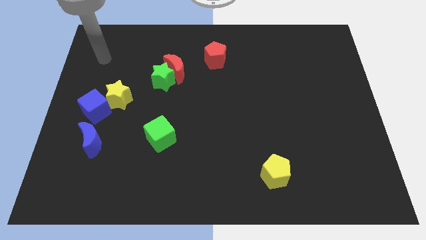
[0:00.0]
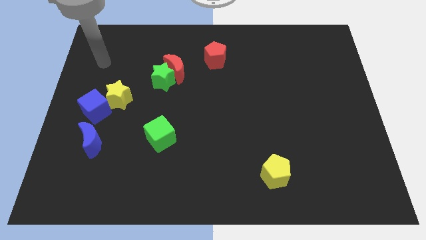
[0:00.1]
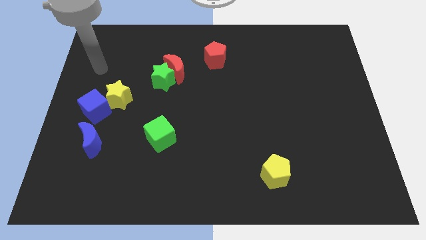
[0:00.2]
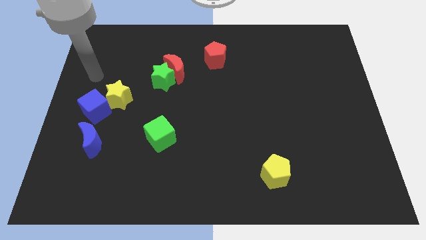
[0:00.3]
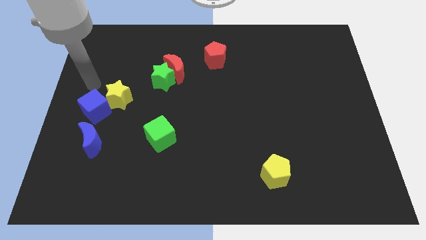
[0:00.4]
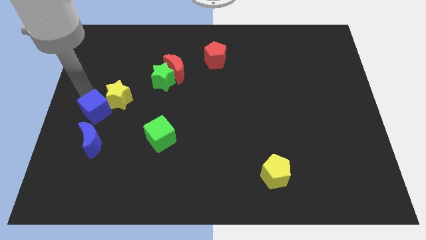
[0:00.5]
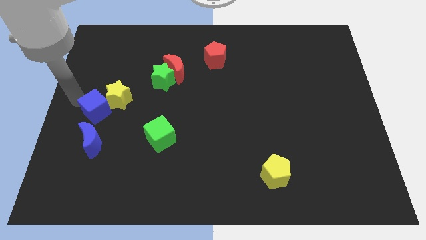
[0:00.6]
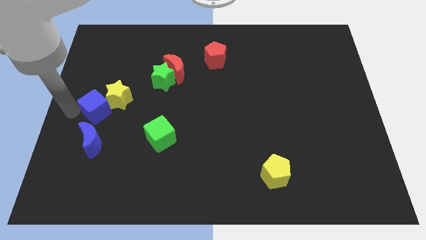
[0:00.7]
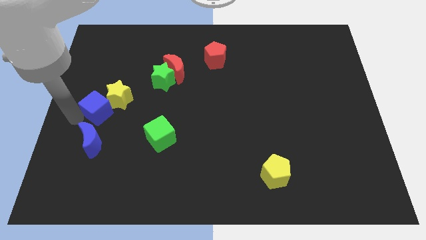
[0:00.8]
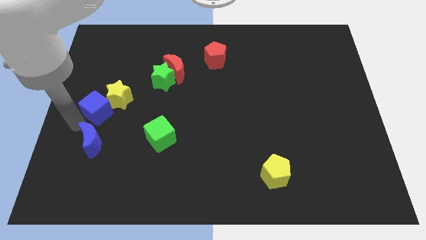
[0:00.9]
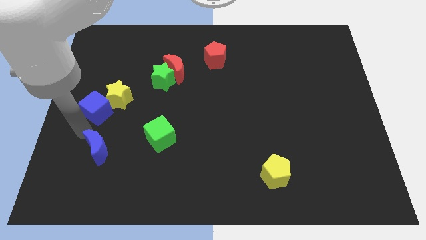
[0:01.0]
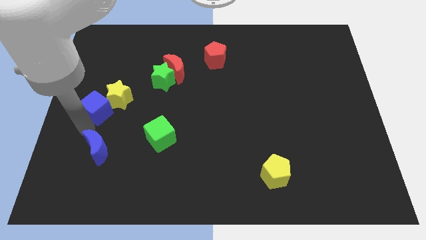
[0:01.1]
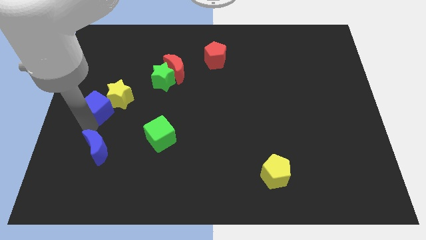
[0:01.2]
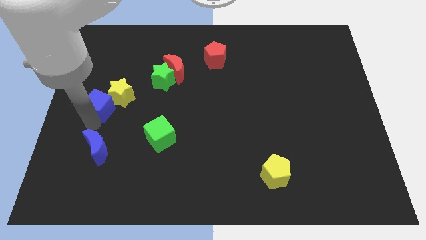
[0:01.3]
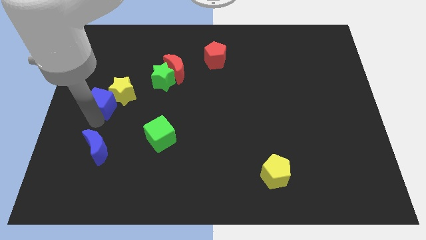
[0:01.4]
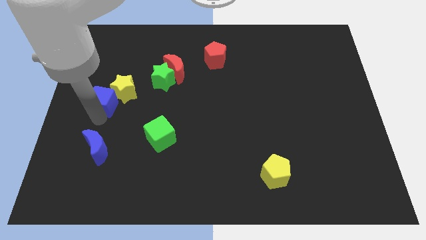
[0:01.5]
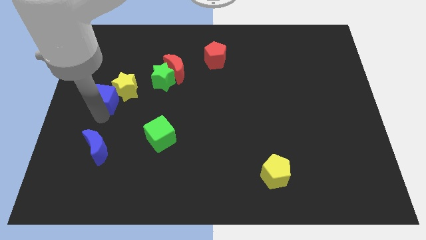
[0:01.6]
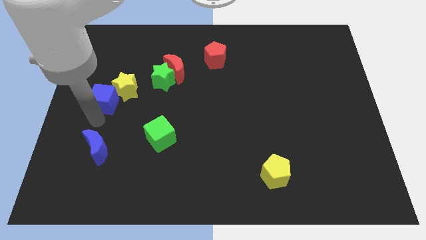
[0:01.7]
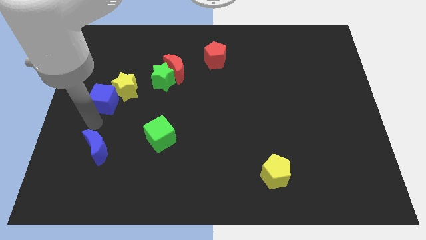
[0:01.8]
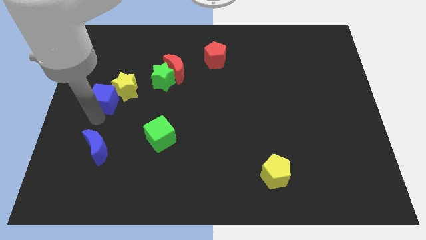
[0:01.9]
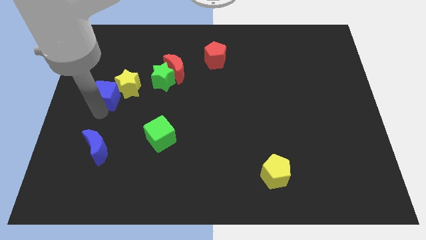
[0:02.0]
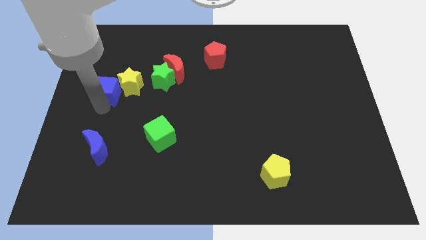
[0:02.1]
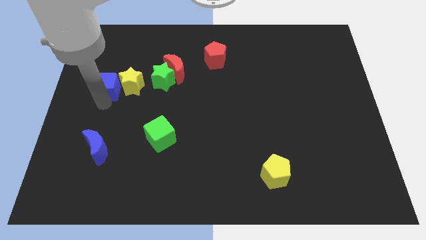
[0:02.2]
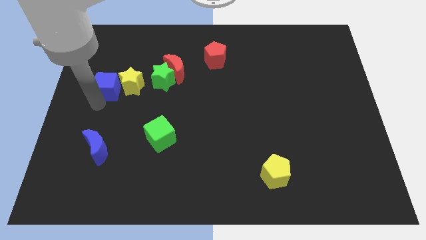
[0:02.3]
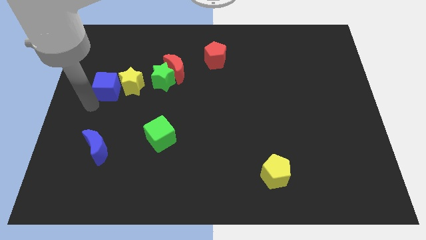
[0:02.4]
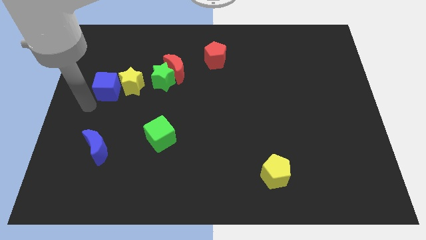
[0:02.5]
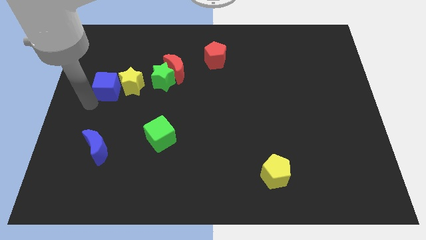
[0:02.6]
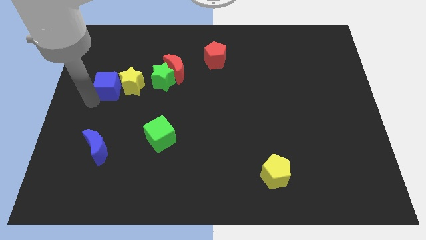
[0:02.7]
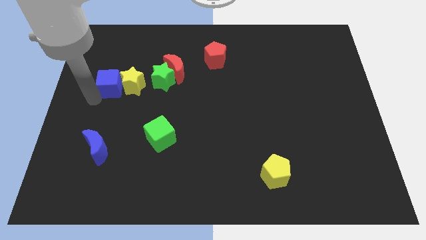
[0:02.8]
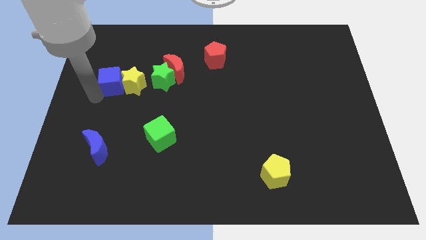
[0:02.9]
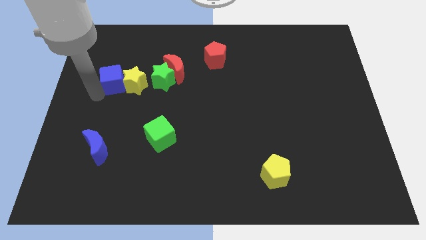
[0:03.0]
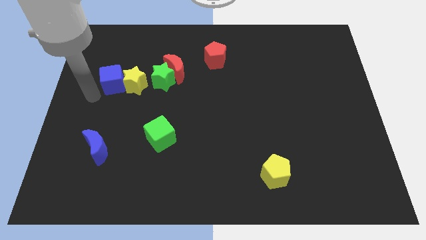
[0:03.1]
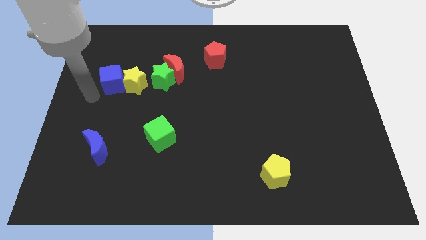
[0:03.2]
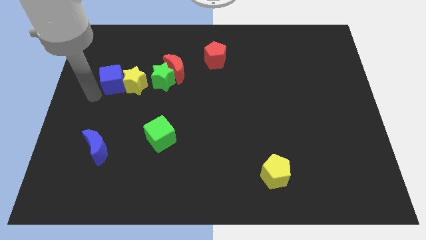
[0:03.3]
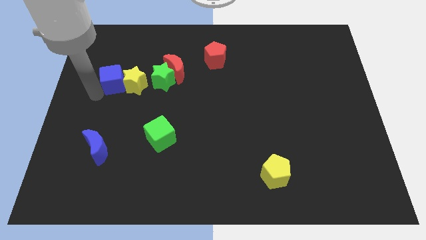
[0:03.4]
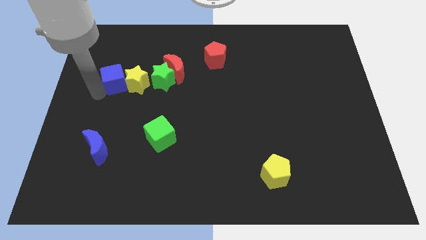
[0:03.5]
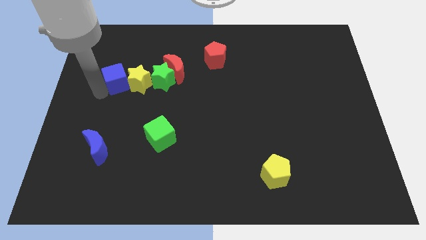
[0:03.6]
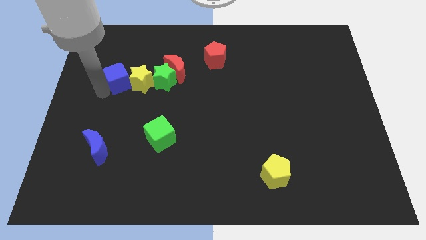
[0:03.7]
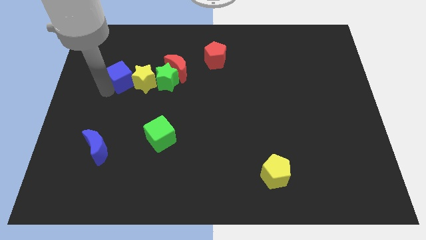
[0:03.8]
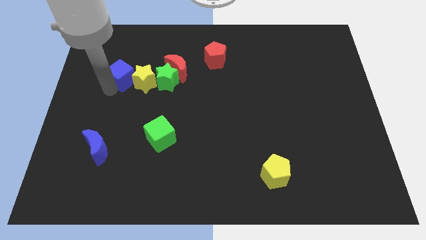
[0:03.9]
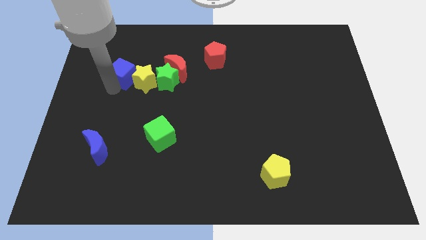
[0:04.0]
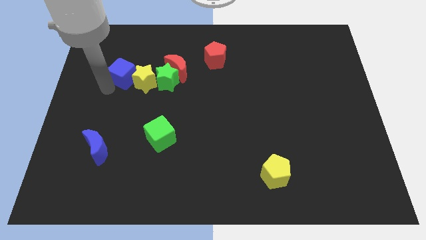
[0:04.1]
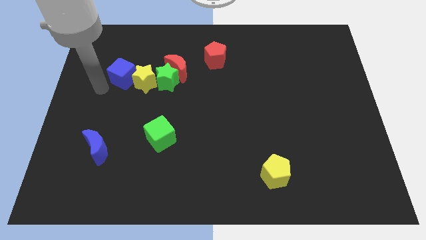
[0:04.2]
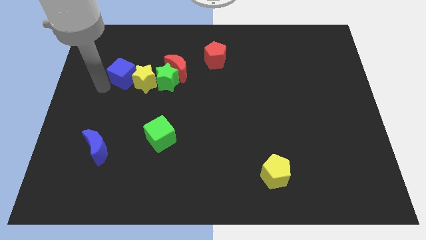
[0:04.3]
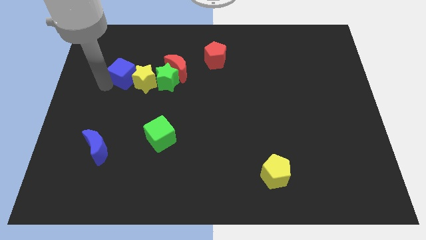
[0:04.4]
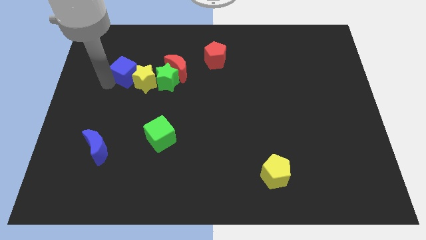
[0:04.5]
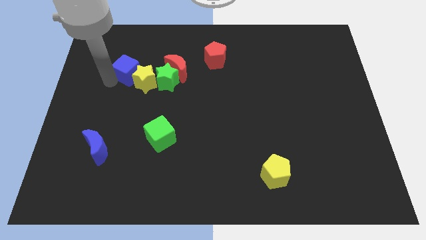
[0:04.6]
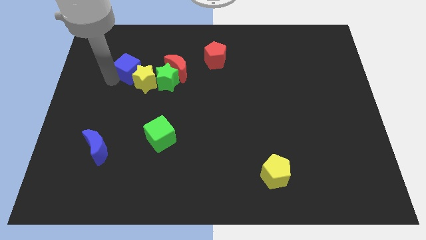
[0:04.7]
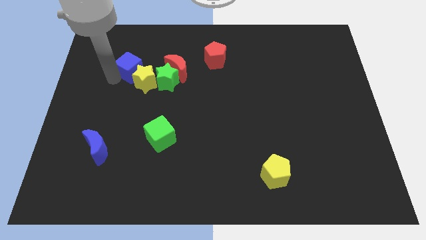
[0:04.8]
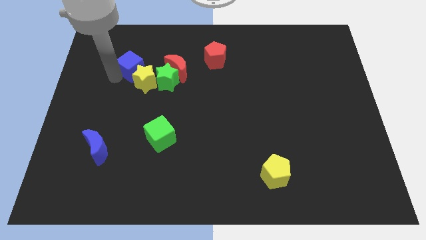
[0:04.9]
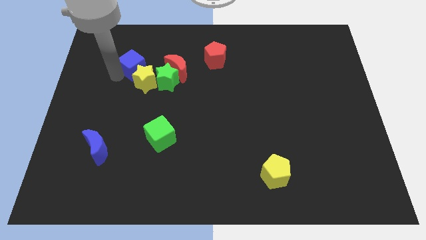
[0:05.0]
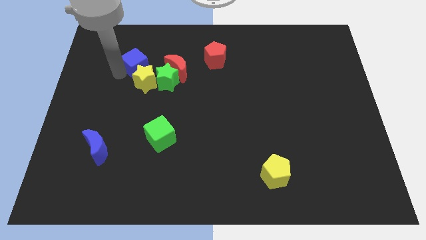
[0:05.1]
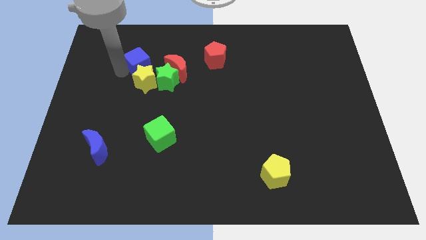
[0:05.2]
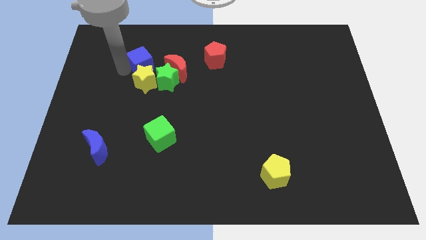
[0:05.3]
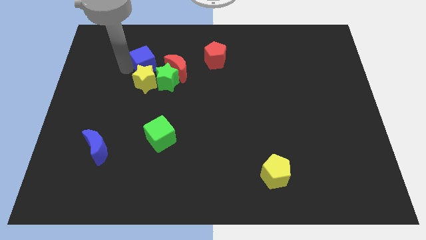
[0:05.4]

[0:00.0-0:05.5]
push the blue cube to the top left side of the red moon
